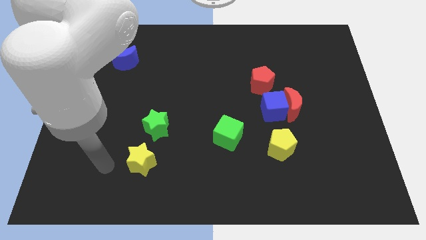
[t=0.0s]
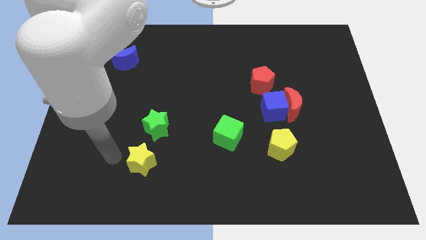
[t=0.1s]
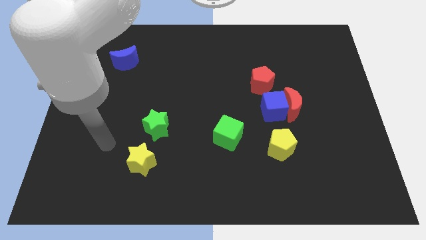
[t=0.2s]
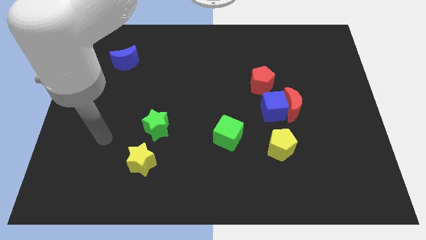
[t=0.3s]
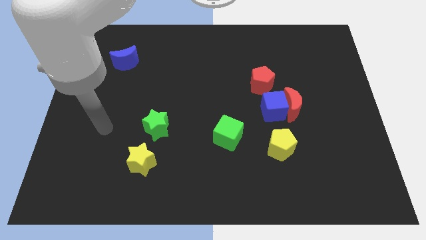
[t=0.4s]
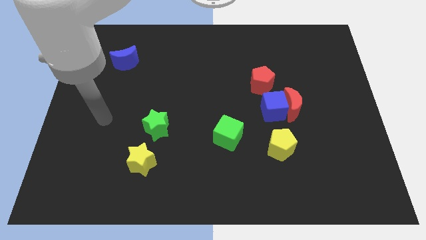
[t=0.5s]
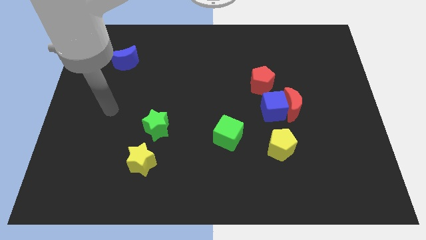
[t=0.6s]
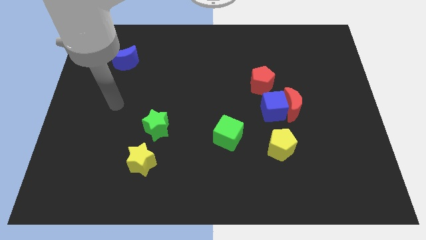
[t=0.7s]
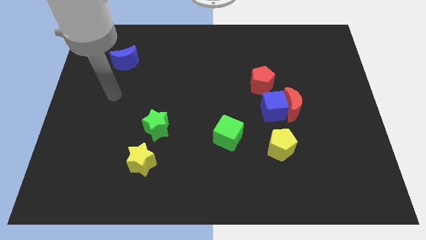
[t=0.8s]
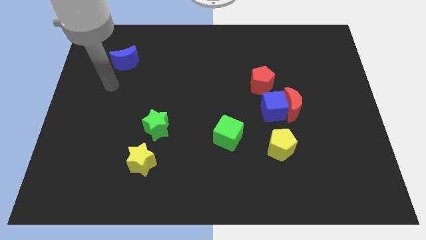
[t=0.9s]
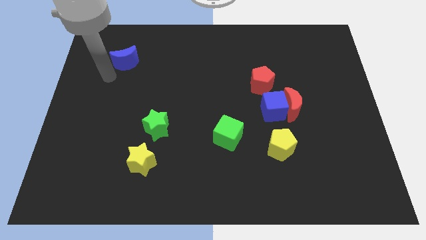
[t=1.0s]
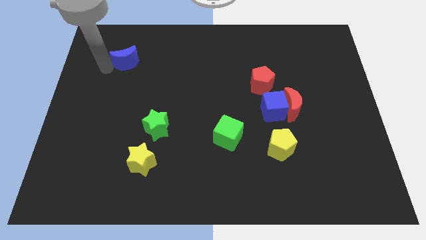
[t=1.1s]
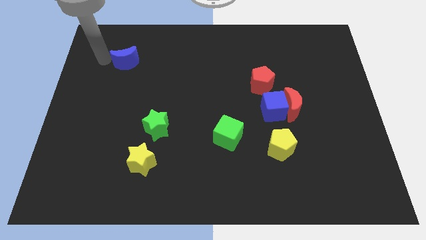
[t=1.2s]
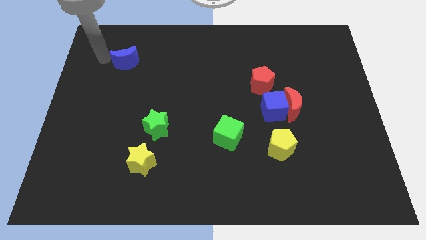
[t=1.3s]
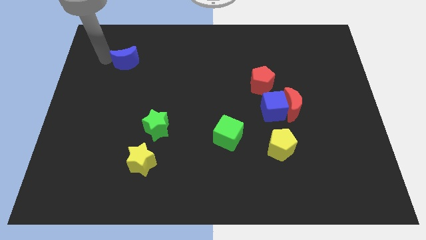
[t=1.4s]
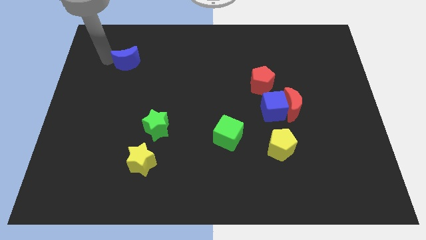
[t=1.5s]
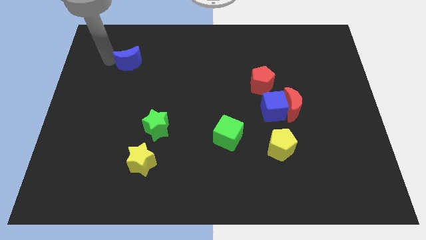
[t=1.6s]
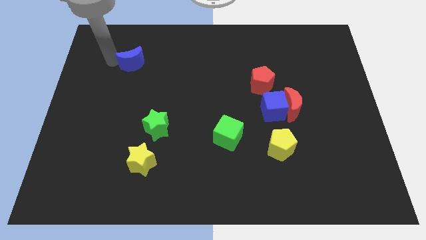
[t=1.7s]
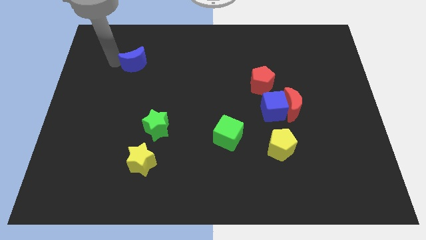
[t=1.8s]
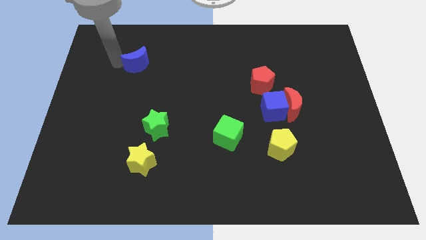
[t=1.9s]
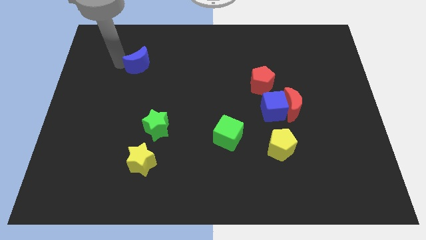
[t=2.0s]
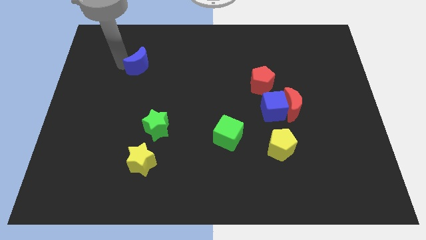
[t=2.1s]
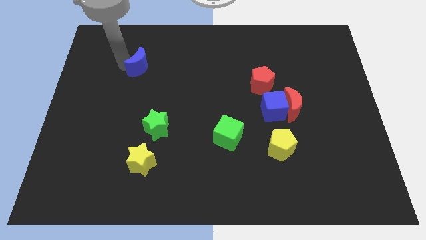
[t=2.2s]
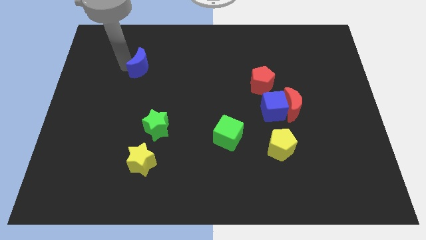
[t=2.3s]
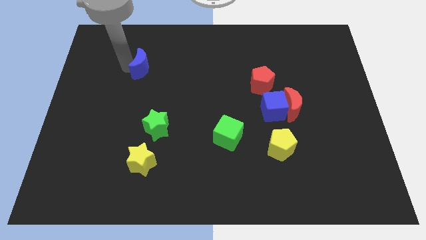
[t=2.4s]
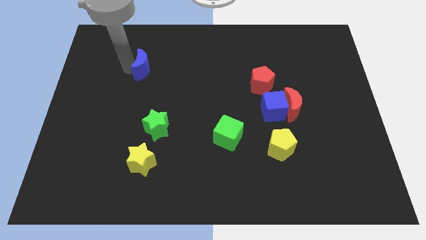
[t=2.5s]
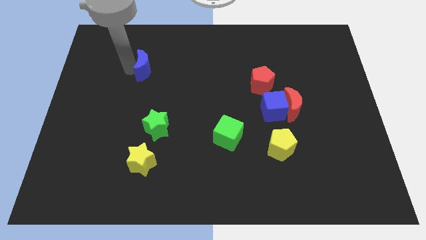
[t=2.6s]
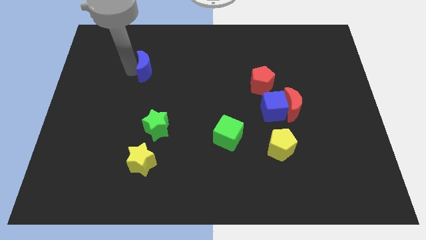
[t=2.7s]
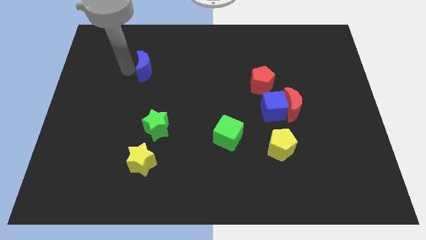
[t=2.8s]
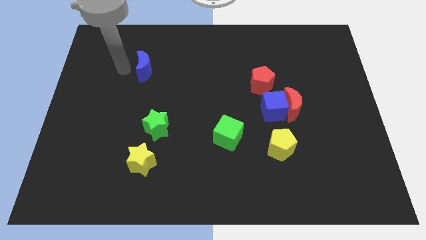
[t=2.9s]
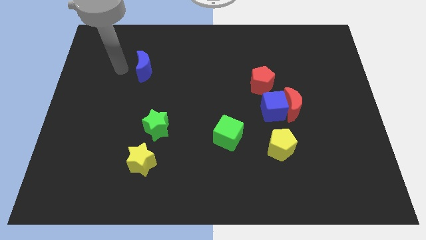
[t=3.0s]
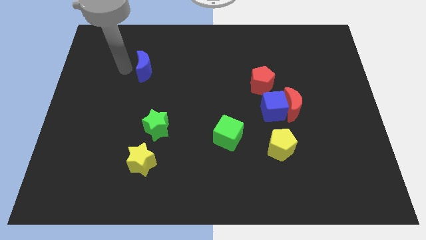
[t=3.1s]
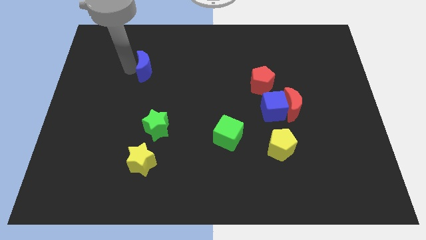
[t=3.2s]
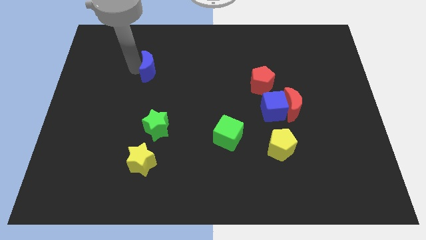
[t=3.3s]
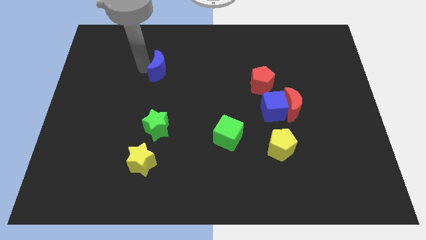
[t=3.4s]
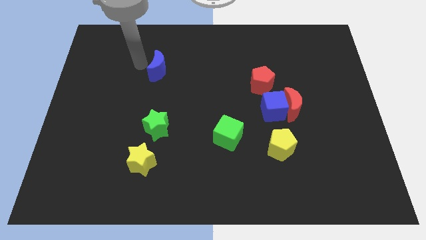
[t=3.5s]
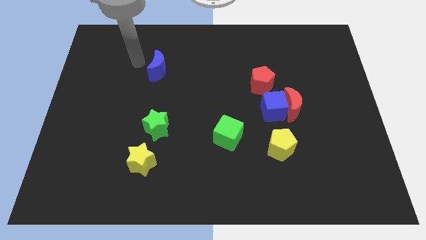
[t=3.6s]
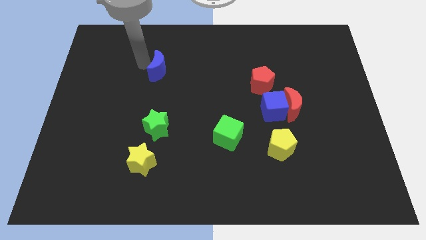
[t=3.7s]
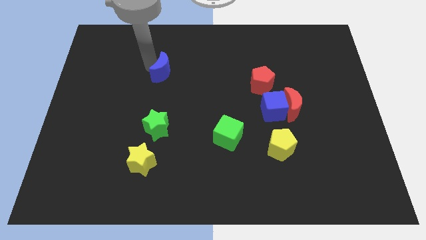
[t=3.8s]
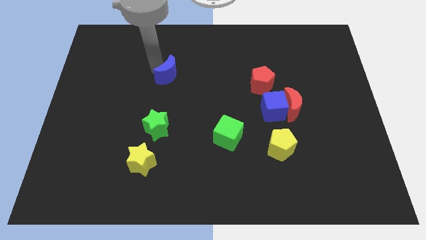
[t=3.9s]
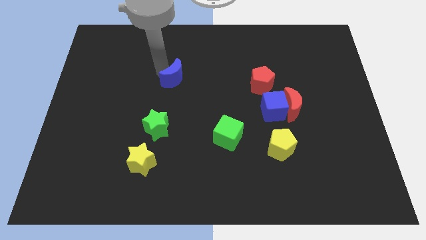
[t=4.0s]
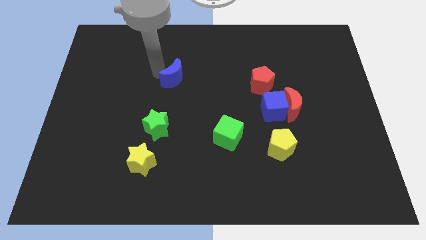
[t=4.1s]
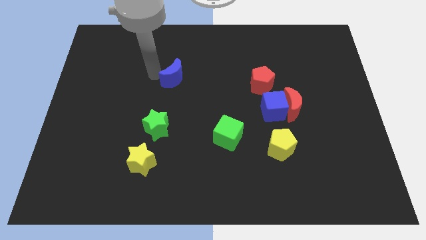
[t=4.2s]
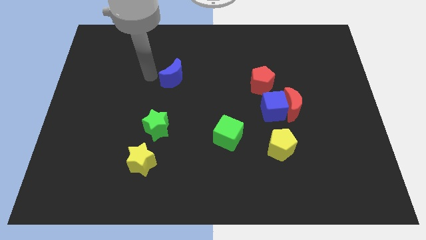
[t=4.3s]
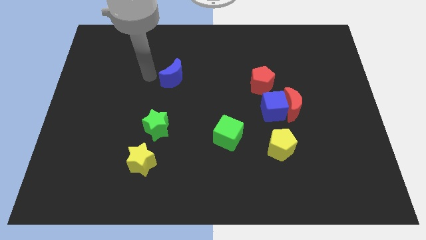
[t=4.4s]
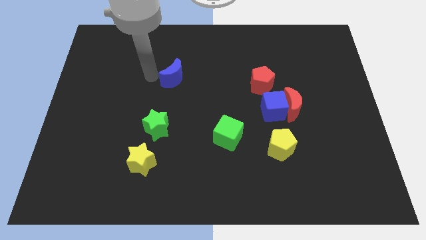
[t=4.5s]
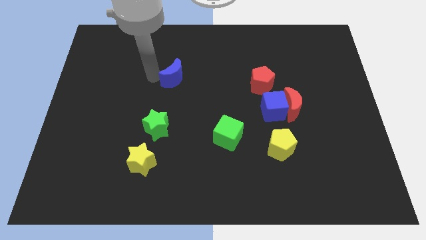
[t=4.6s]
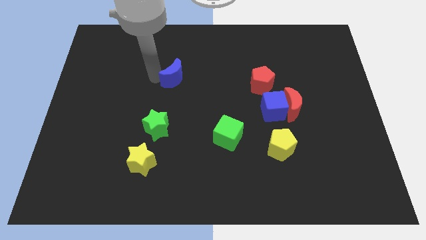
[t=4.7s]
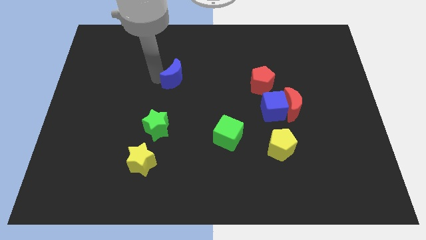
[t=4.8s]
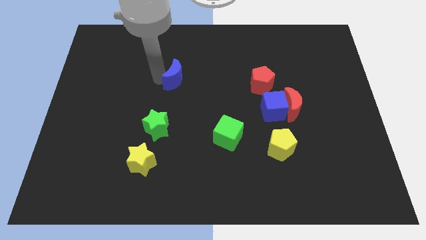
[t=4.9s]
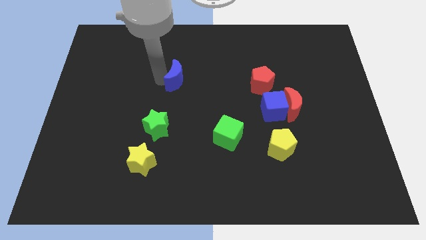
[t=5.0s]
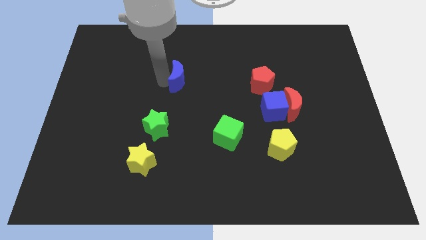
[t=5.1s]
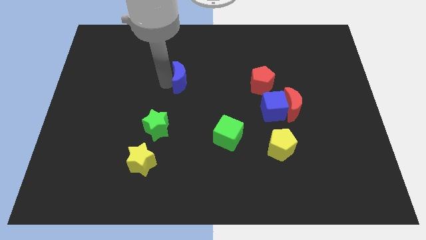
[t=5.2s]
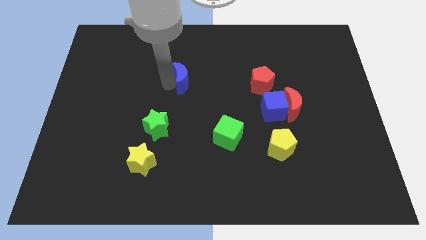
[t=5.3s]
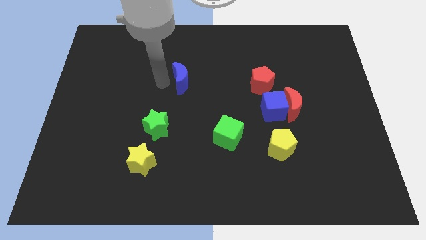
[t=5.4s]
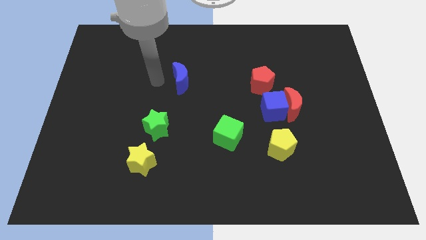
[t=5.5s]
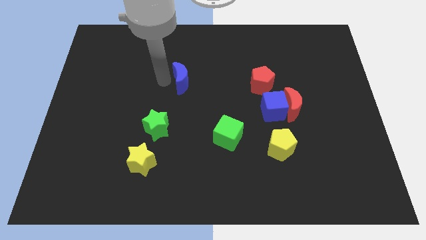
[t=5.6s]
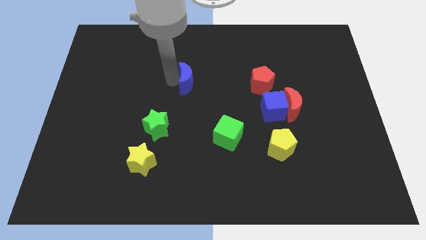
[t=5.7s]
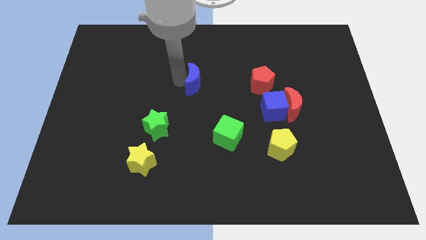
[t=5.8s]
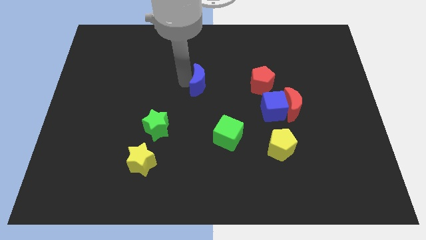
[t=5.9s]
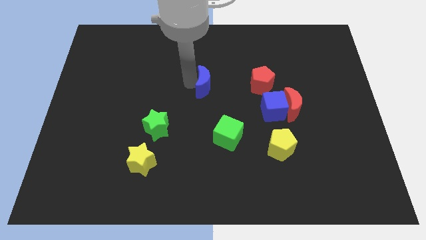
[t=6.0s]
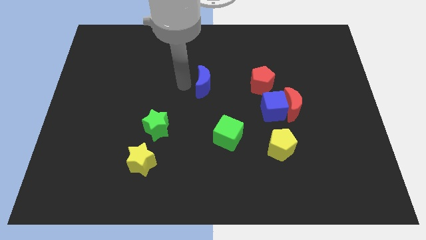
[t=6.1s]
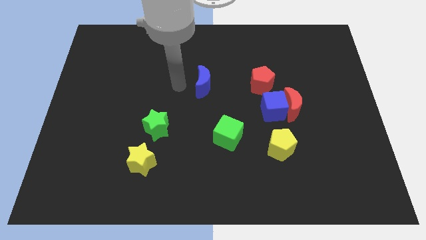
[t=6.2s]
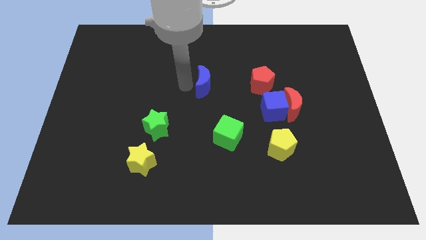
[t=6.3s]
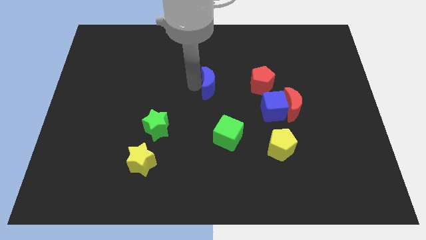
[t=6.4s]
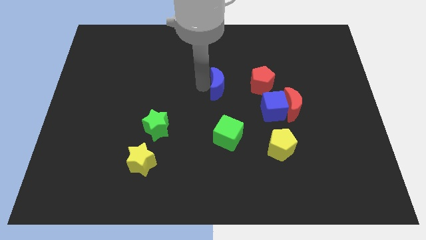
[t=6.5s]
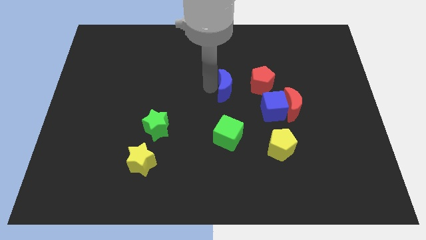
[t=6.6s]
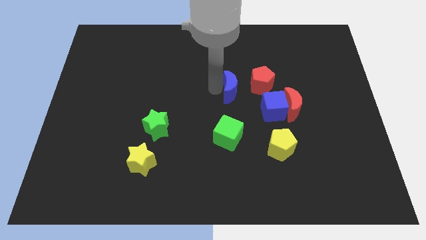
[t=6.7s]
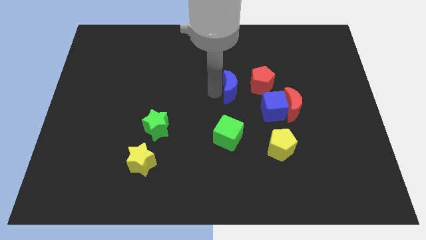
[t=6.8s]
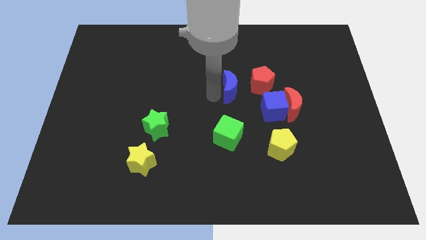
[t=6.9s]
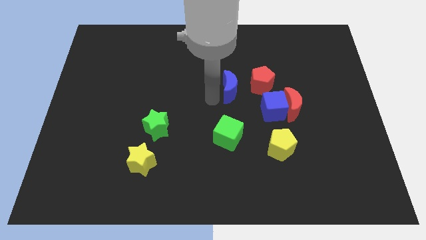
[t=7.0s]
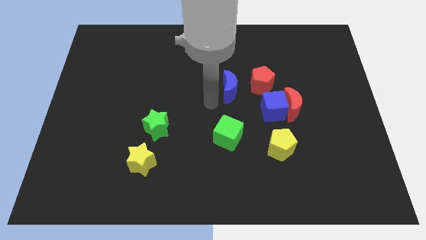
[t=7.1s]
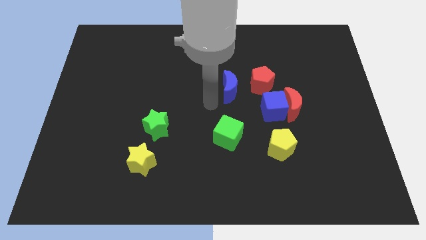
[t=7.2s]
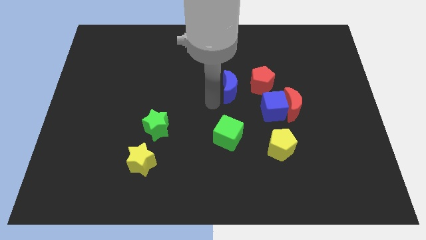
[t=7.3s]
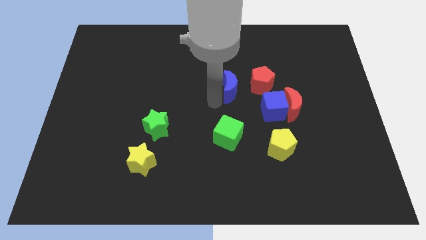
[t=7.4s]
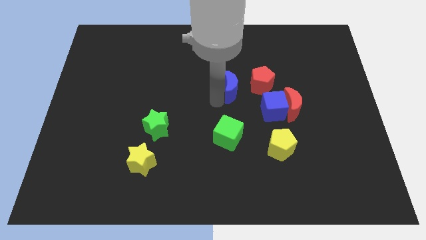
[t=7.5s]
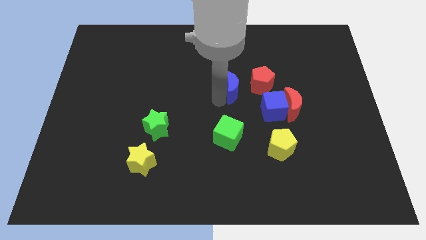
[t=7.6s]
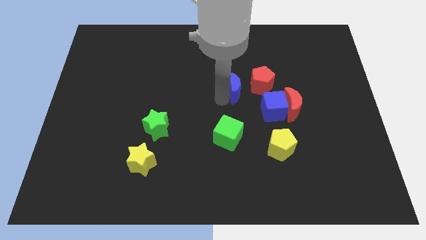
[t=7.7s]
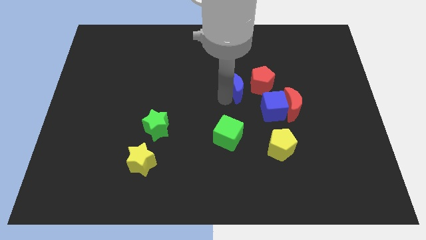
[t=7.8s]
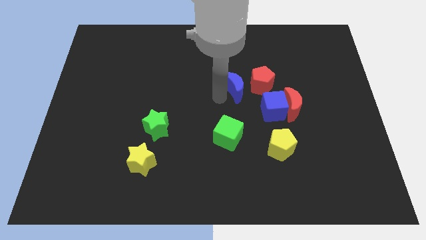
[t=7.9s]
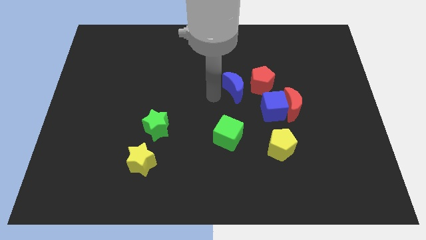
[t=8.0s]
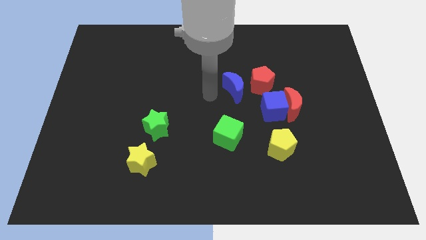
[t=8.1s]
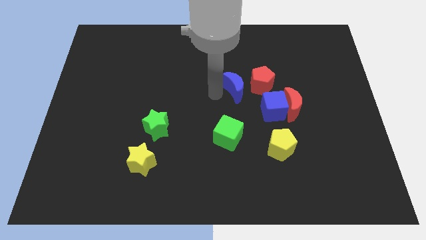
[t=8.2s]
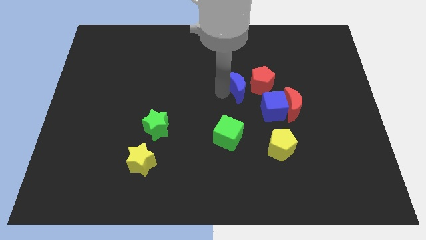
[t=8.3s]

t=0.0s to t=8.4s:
slide the blue moon to the red pentagon
